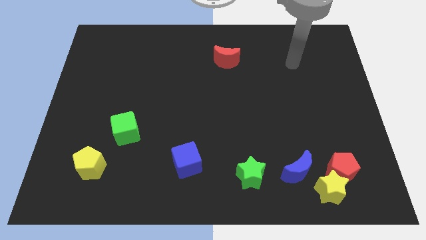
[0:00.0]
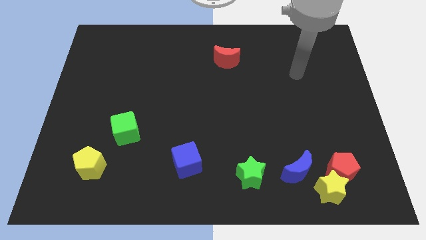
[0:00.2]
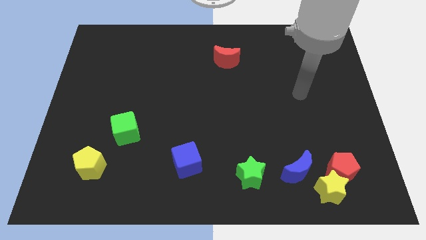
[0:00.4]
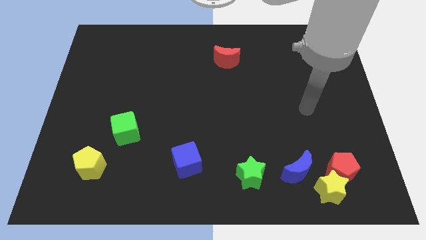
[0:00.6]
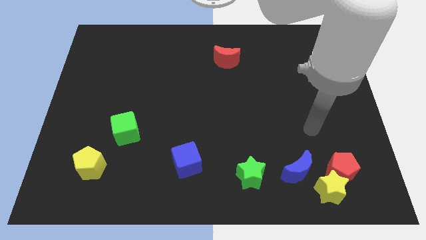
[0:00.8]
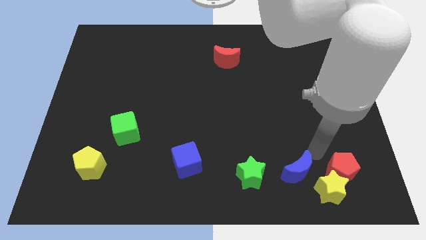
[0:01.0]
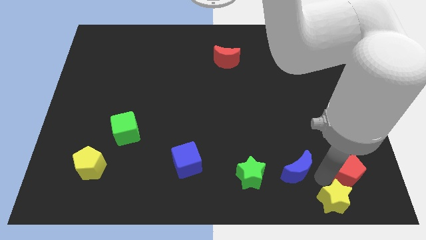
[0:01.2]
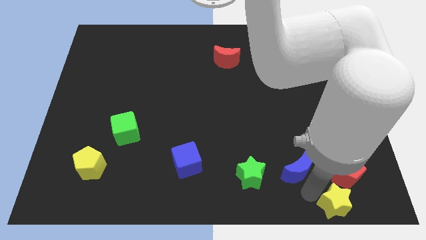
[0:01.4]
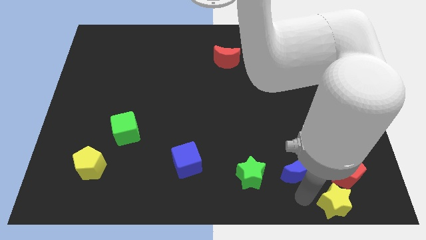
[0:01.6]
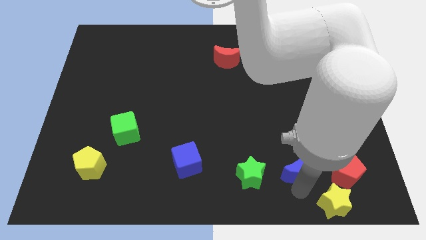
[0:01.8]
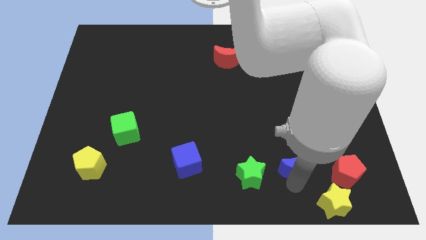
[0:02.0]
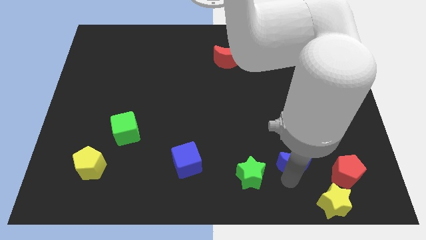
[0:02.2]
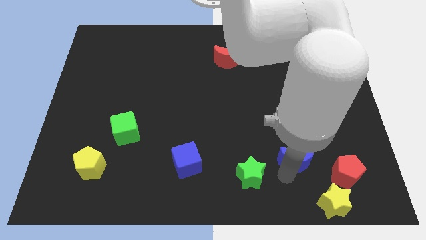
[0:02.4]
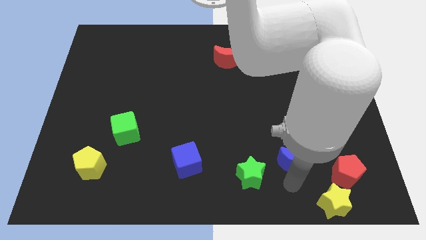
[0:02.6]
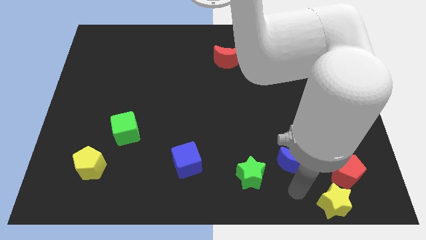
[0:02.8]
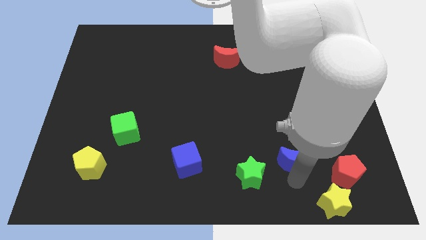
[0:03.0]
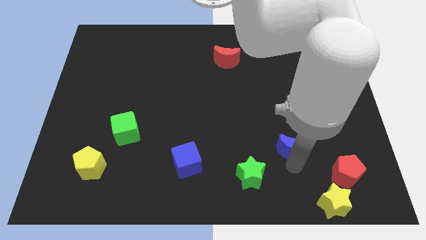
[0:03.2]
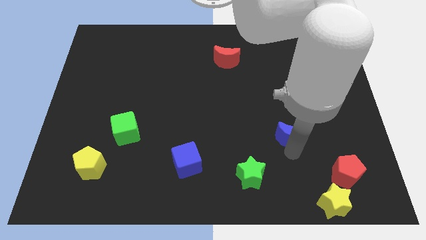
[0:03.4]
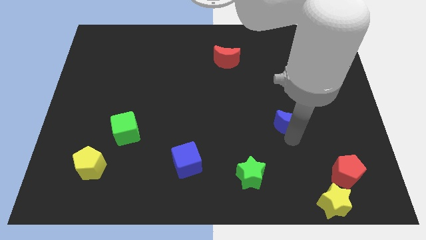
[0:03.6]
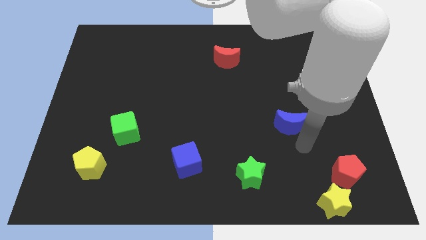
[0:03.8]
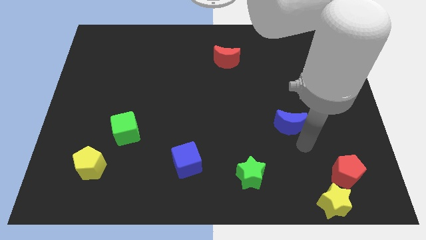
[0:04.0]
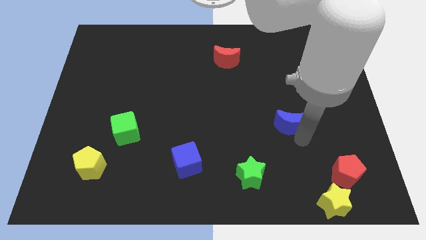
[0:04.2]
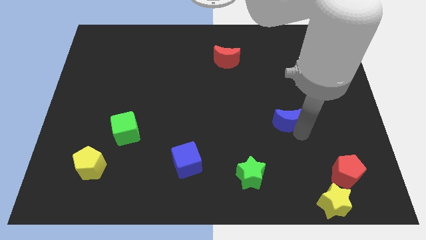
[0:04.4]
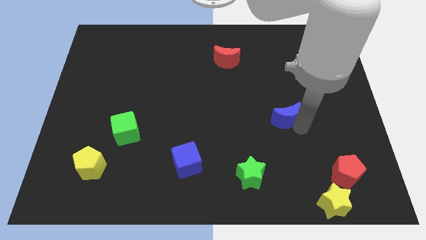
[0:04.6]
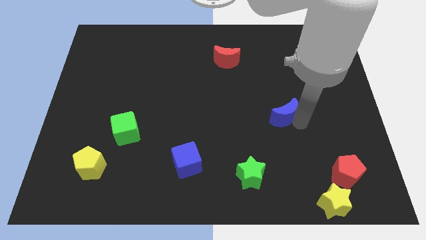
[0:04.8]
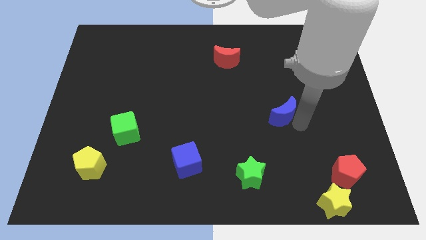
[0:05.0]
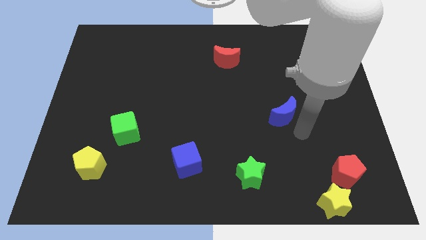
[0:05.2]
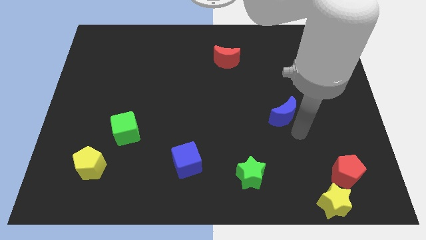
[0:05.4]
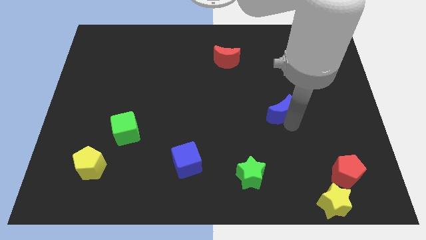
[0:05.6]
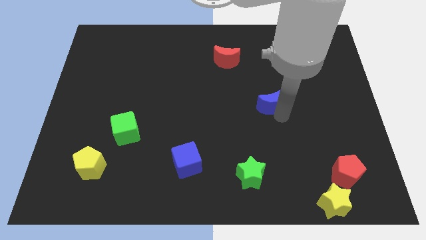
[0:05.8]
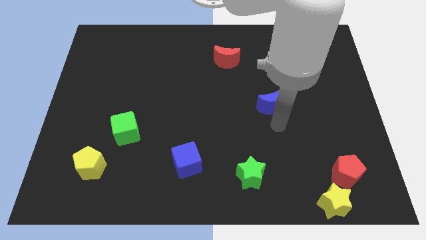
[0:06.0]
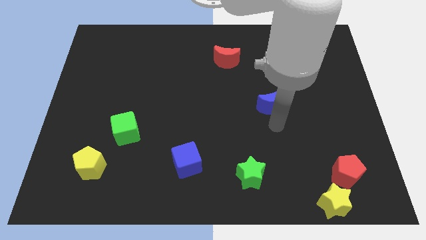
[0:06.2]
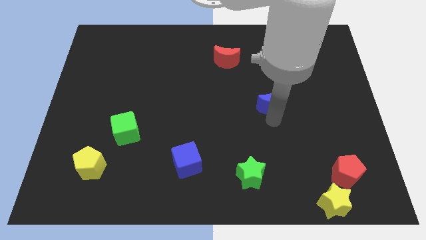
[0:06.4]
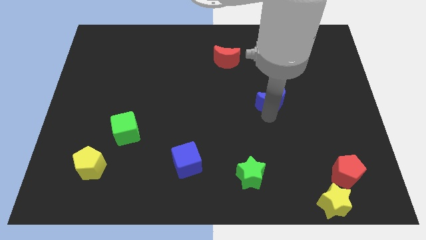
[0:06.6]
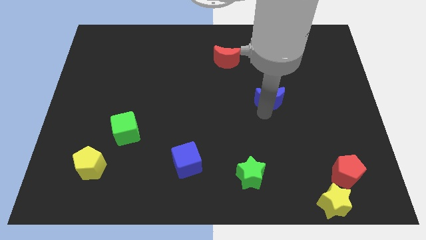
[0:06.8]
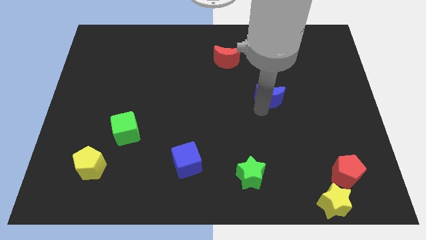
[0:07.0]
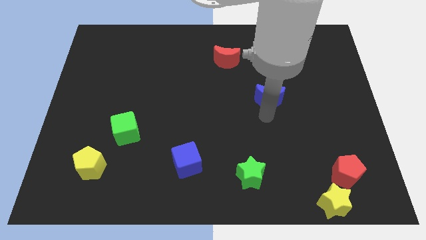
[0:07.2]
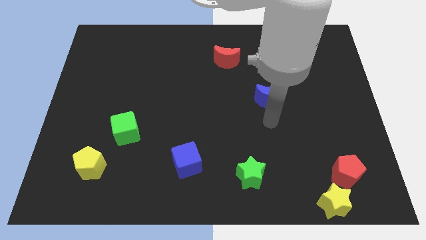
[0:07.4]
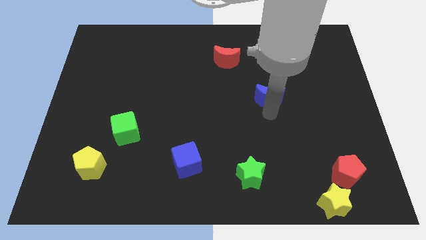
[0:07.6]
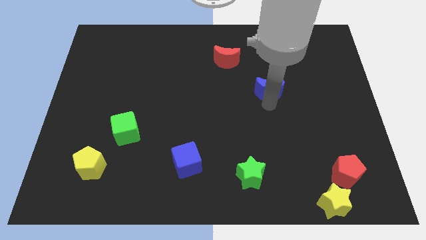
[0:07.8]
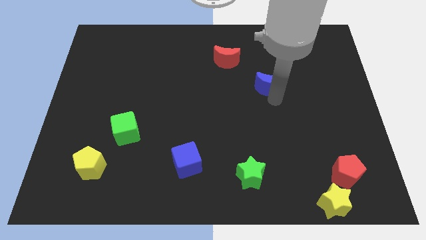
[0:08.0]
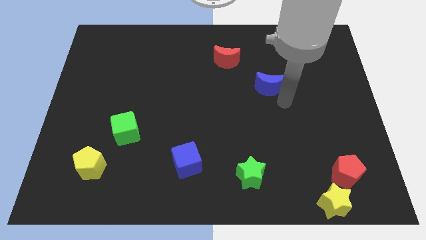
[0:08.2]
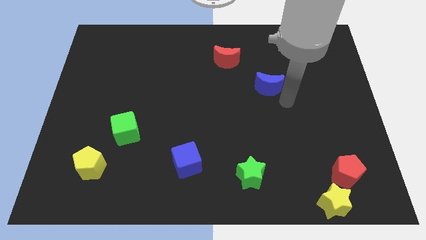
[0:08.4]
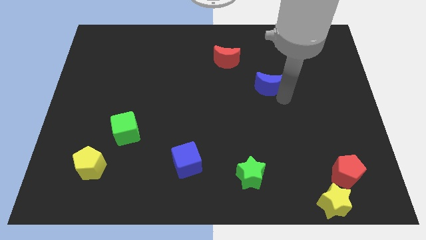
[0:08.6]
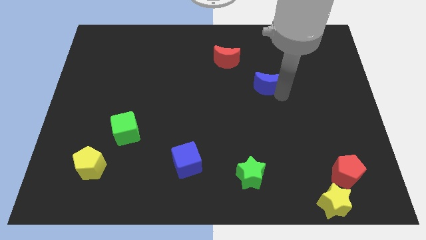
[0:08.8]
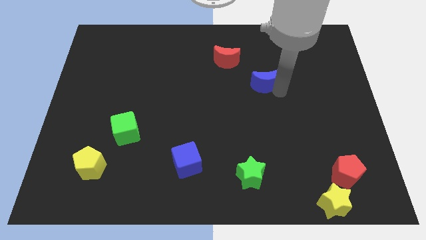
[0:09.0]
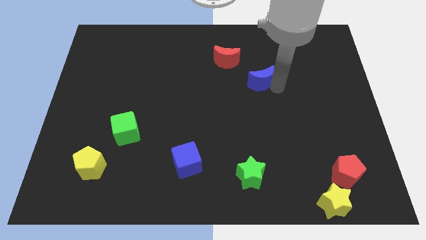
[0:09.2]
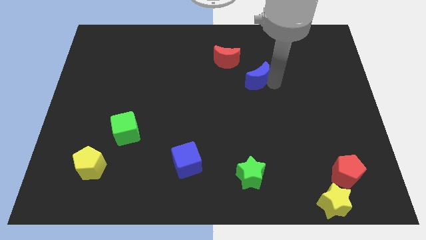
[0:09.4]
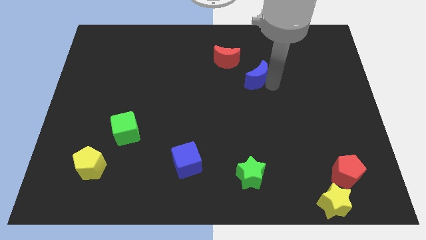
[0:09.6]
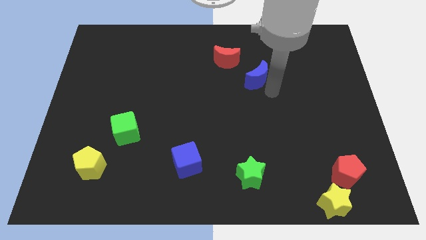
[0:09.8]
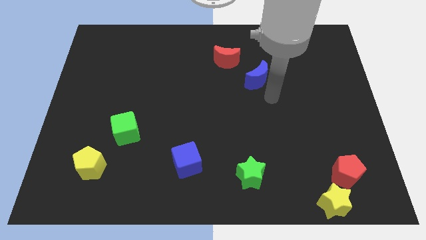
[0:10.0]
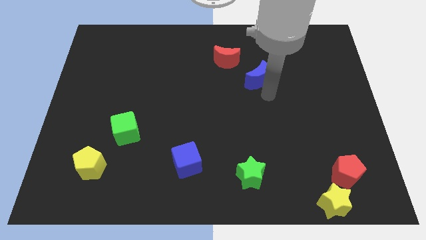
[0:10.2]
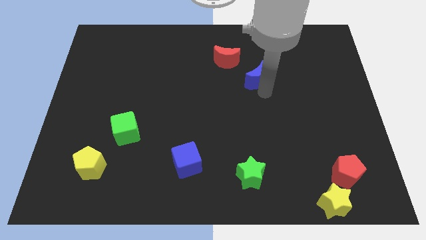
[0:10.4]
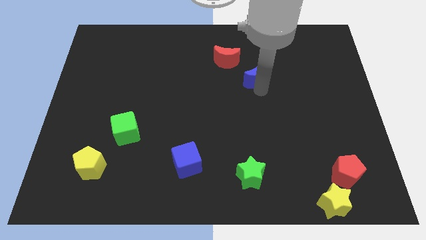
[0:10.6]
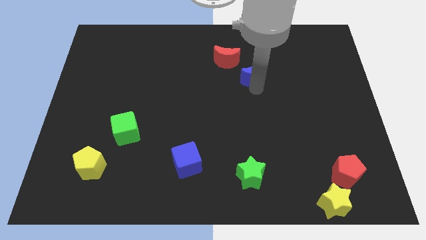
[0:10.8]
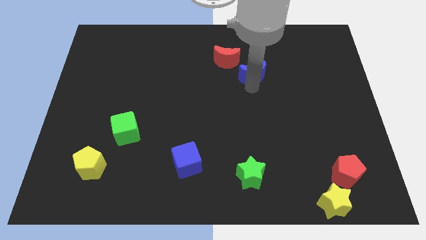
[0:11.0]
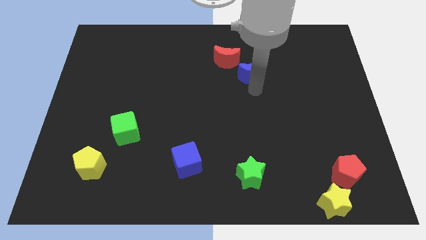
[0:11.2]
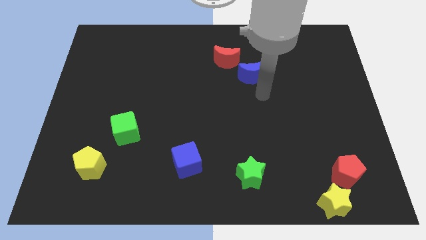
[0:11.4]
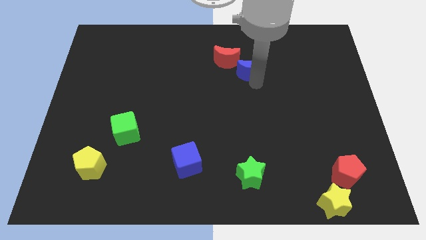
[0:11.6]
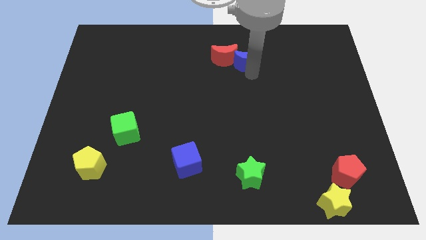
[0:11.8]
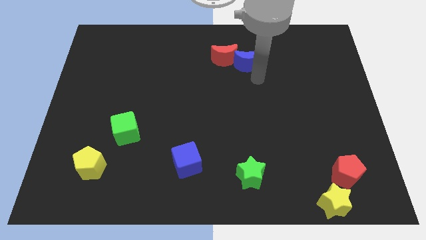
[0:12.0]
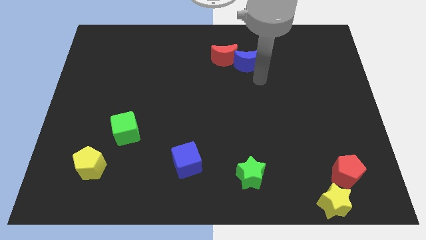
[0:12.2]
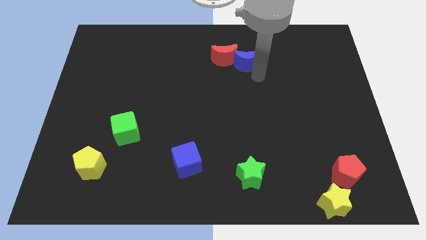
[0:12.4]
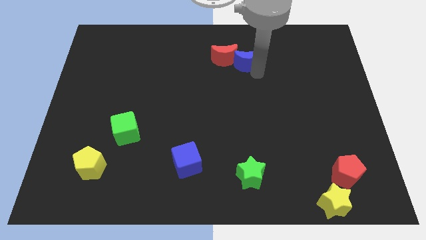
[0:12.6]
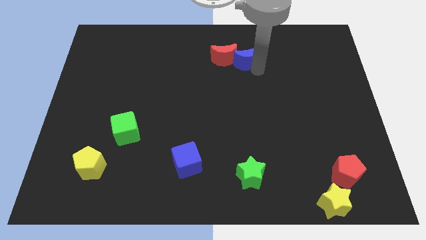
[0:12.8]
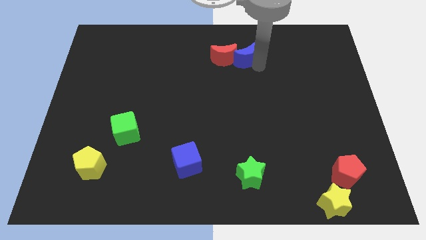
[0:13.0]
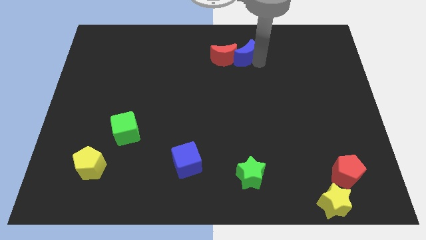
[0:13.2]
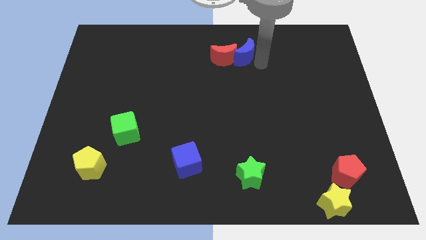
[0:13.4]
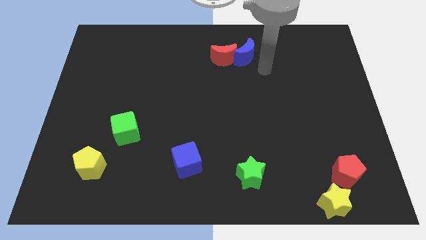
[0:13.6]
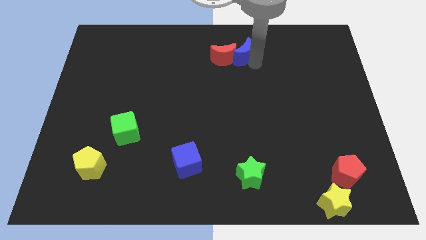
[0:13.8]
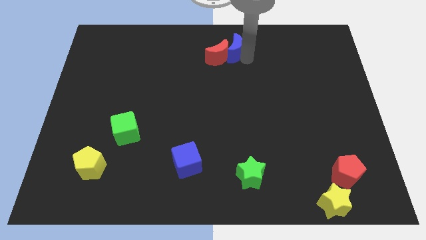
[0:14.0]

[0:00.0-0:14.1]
slide the blue moon to the top side
